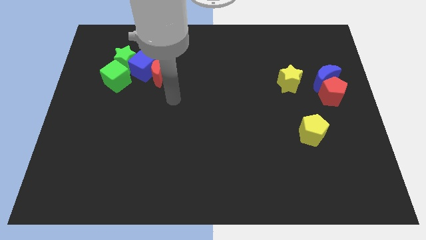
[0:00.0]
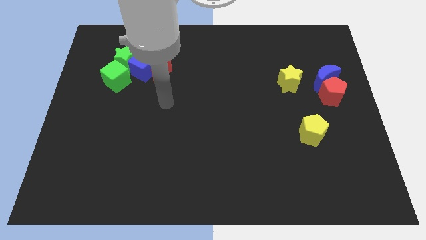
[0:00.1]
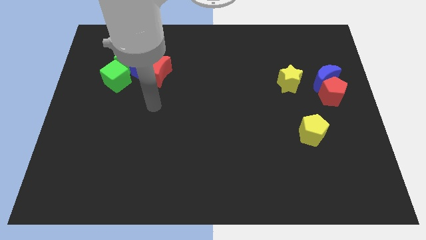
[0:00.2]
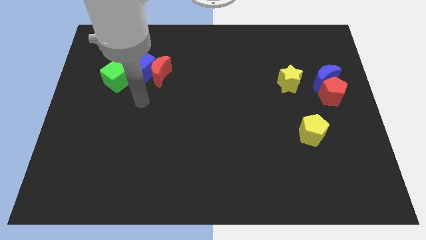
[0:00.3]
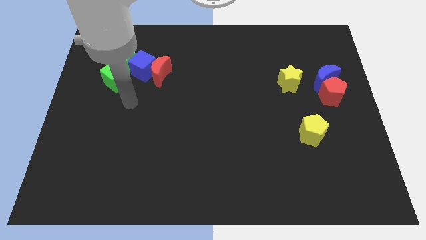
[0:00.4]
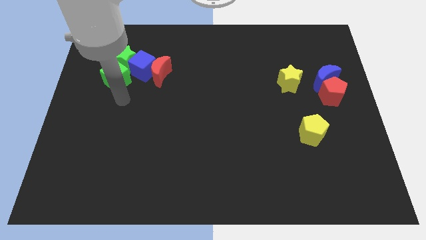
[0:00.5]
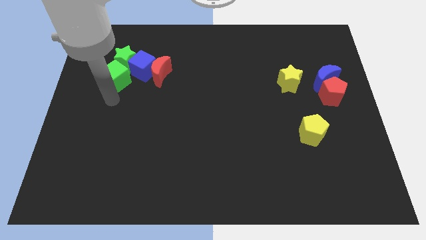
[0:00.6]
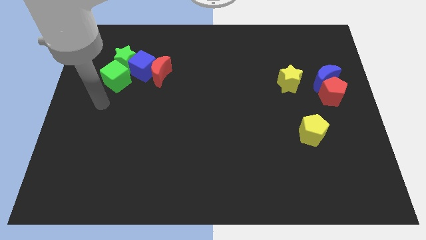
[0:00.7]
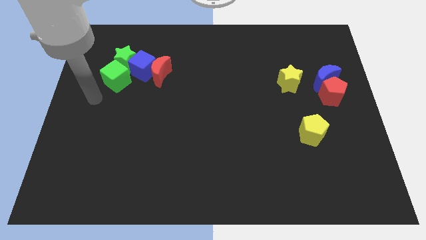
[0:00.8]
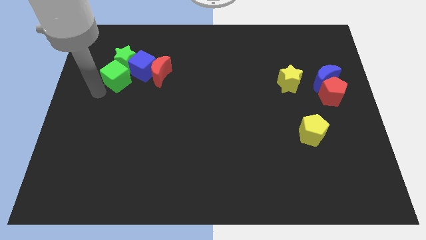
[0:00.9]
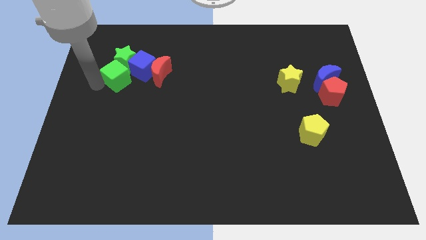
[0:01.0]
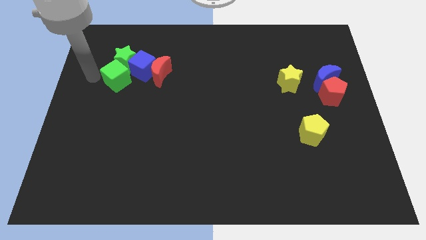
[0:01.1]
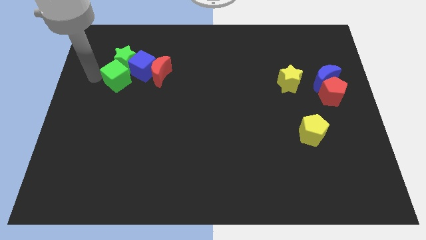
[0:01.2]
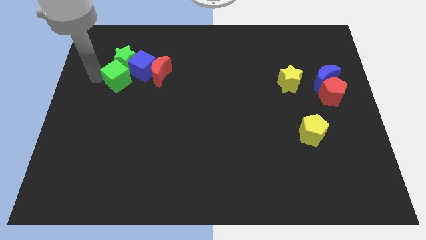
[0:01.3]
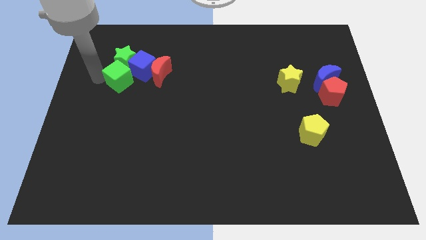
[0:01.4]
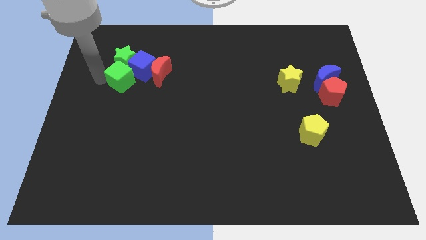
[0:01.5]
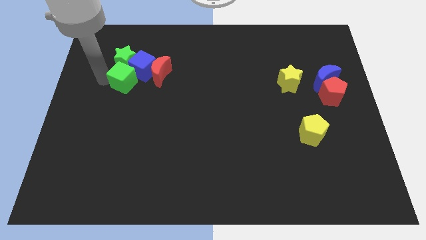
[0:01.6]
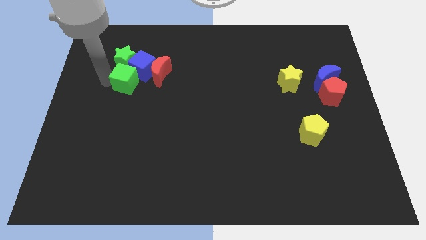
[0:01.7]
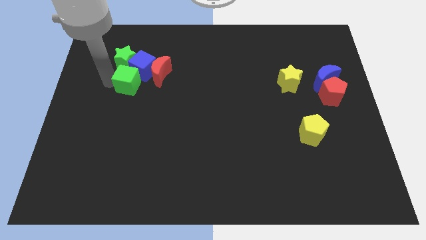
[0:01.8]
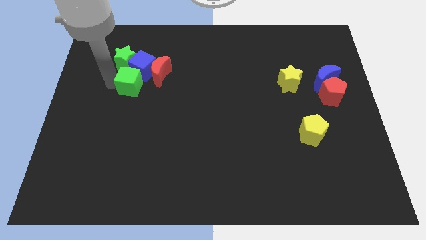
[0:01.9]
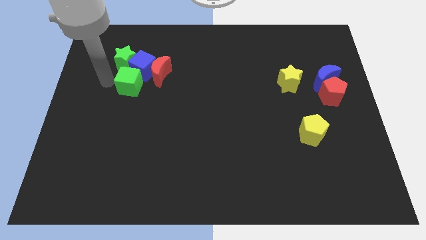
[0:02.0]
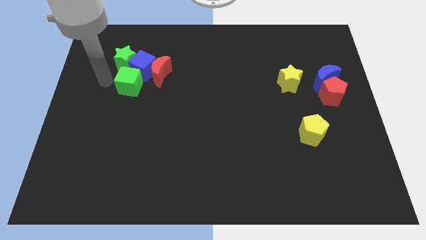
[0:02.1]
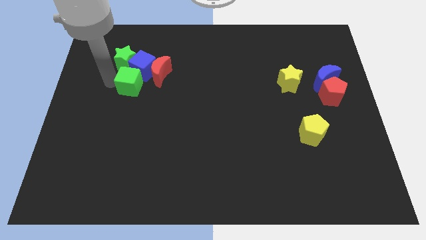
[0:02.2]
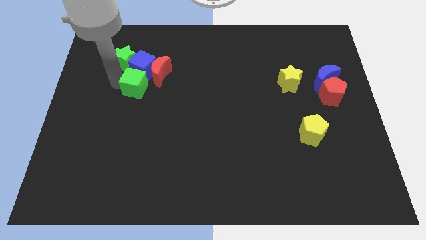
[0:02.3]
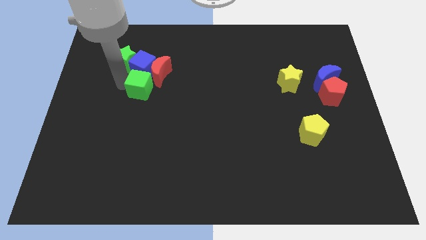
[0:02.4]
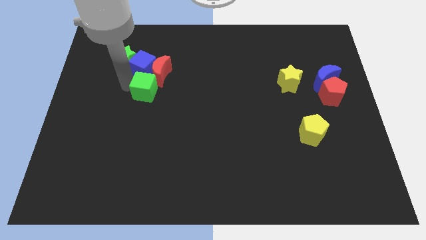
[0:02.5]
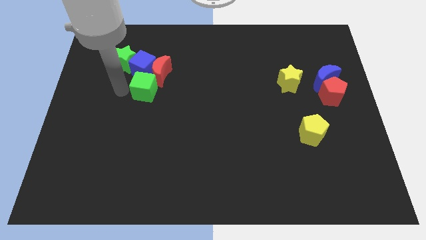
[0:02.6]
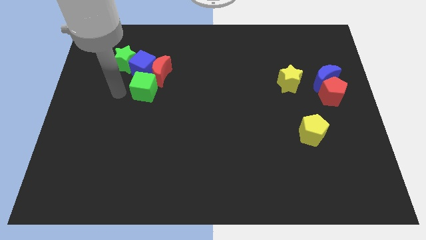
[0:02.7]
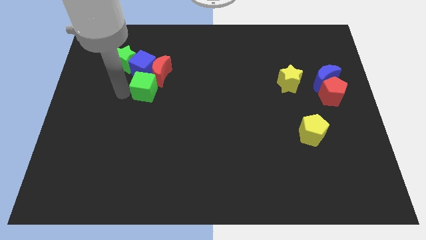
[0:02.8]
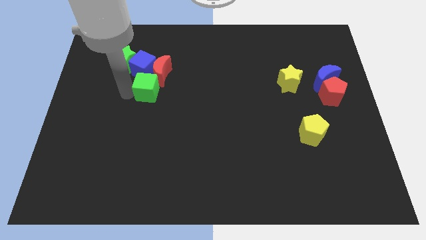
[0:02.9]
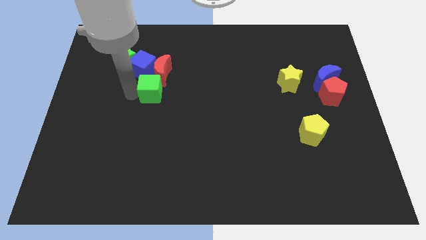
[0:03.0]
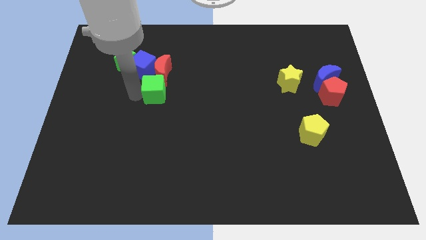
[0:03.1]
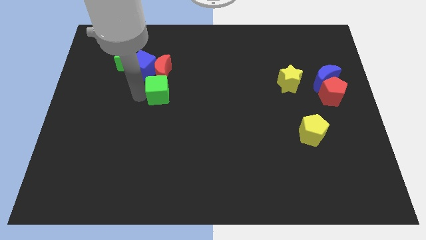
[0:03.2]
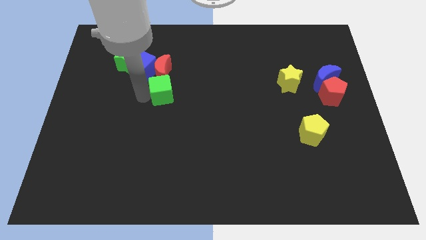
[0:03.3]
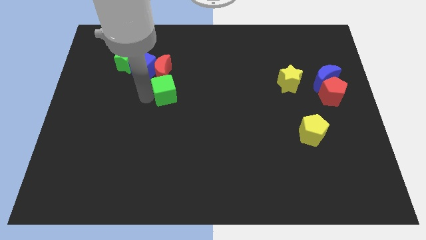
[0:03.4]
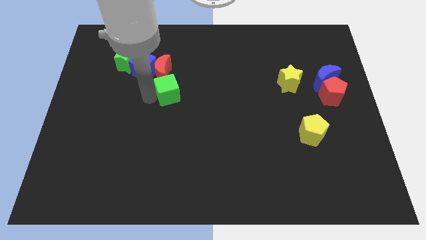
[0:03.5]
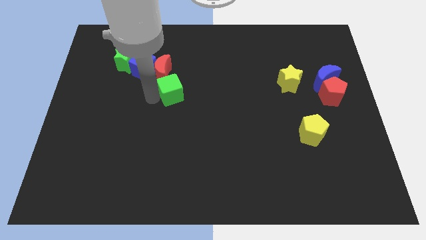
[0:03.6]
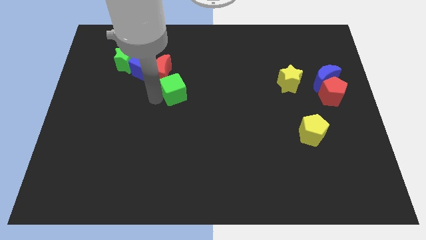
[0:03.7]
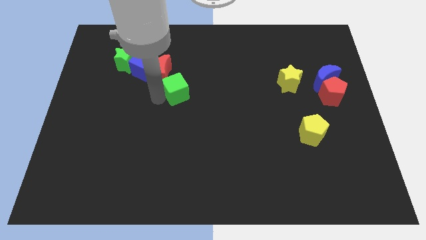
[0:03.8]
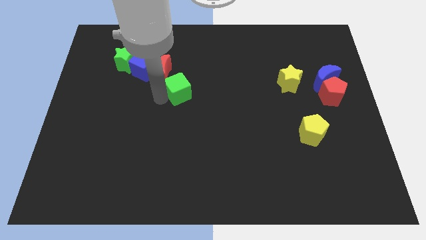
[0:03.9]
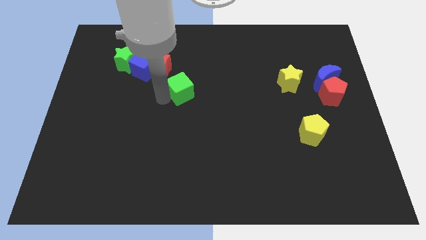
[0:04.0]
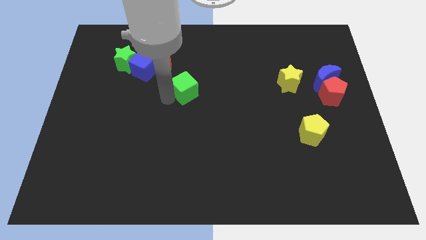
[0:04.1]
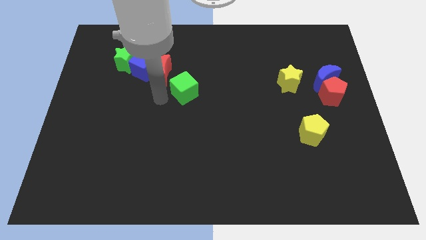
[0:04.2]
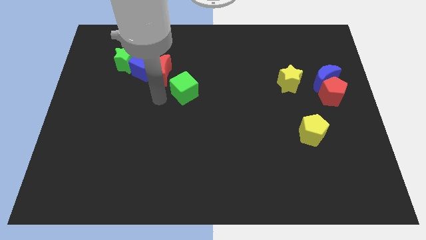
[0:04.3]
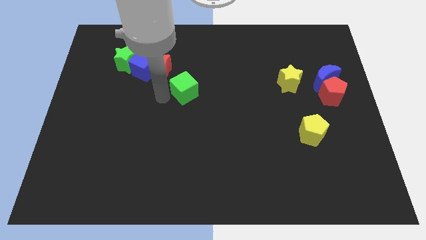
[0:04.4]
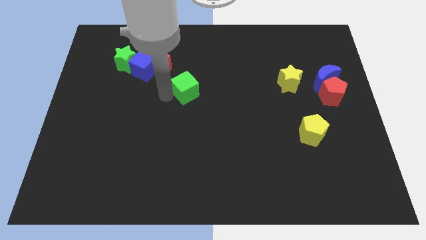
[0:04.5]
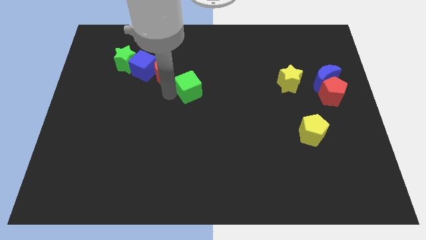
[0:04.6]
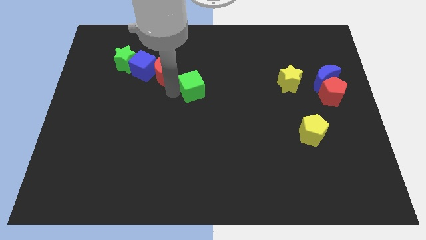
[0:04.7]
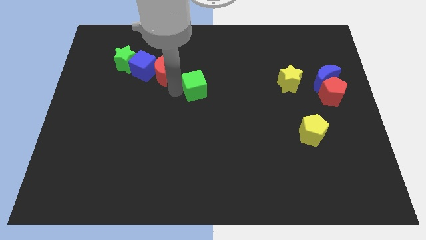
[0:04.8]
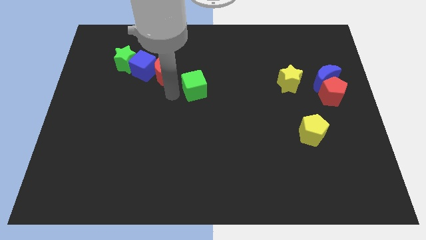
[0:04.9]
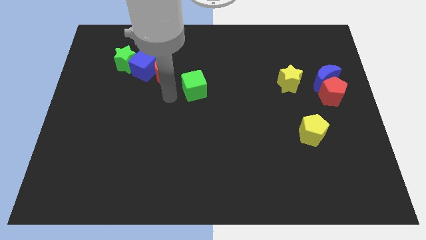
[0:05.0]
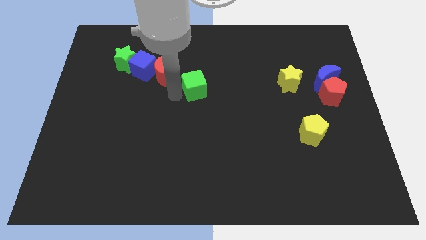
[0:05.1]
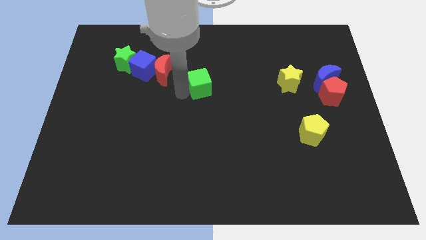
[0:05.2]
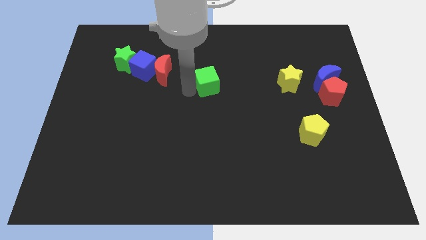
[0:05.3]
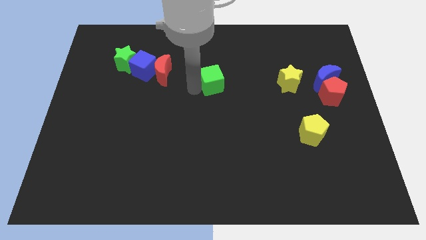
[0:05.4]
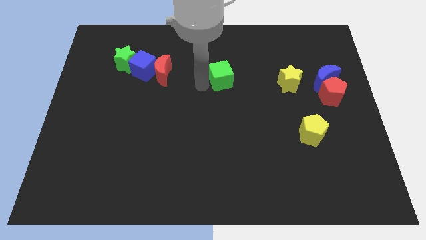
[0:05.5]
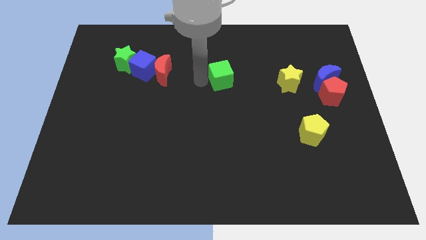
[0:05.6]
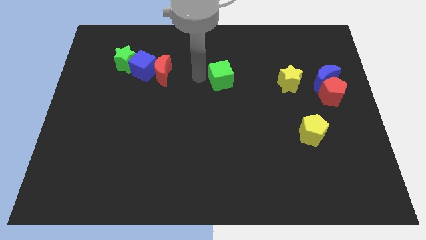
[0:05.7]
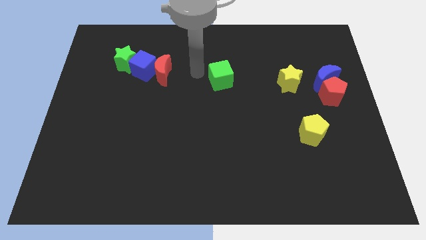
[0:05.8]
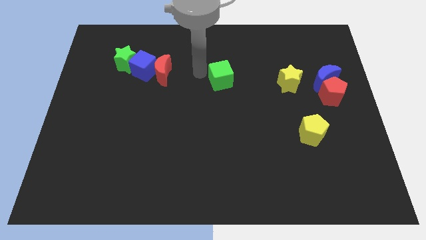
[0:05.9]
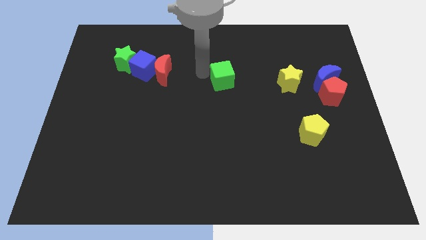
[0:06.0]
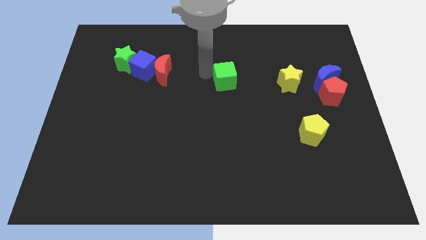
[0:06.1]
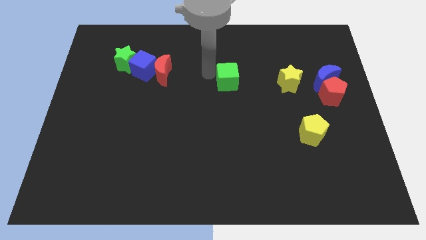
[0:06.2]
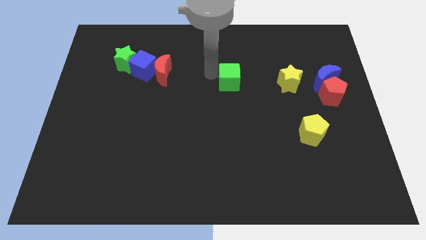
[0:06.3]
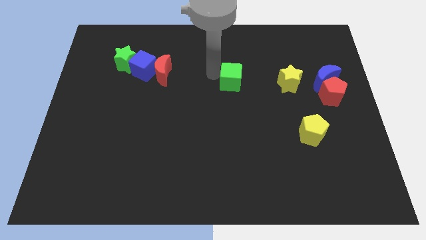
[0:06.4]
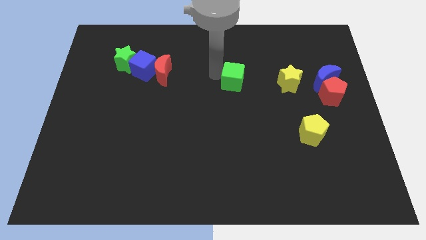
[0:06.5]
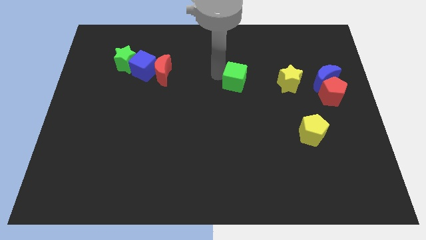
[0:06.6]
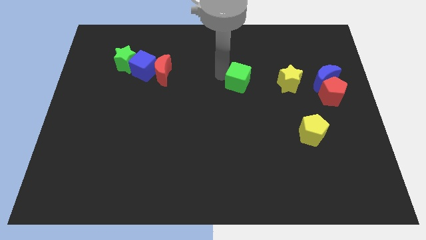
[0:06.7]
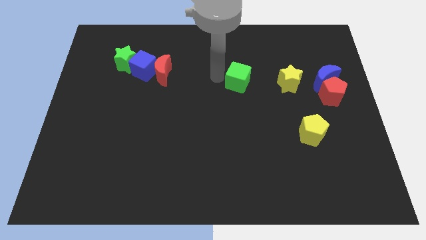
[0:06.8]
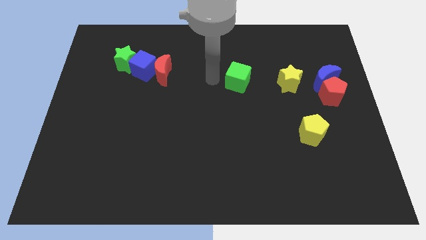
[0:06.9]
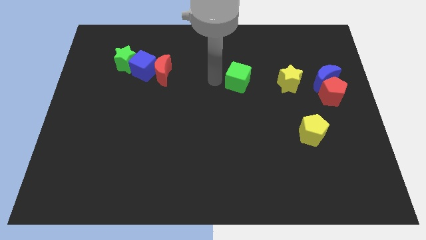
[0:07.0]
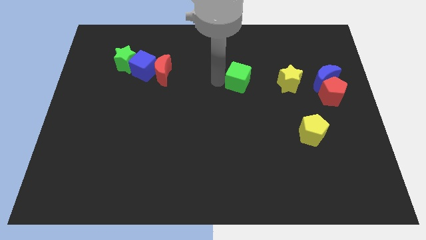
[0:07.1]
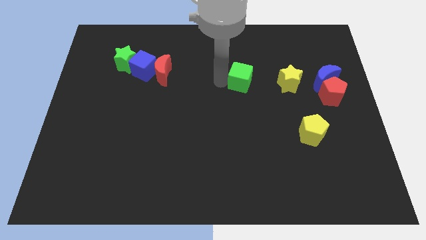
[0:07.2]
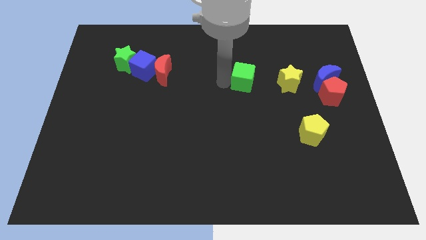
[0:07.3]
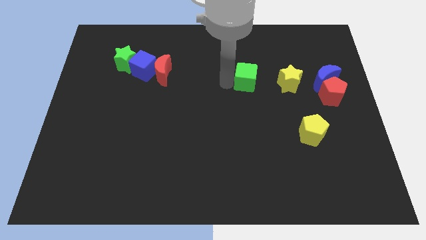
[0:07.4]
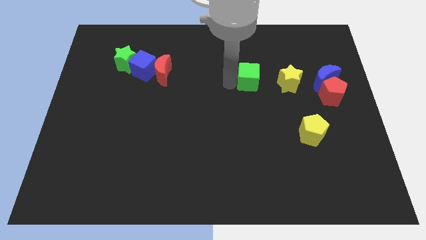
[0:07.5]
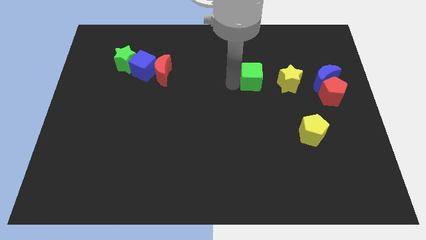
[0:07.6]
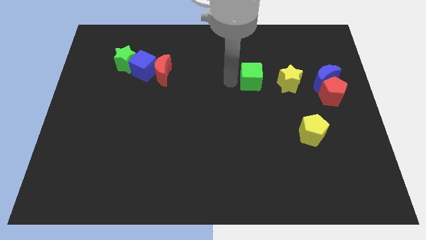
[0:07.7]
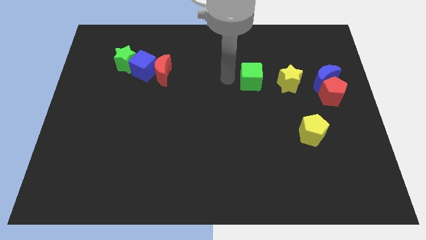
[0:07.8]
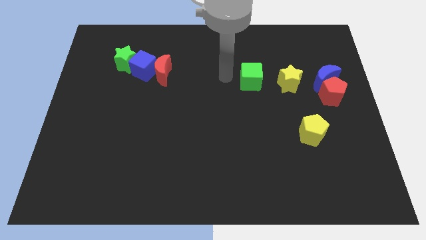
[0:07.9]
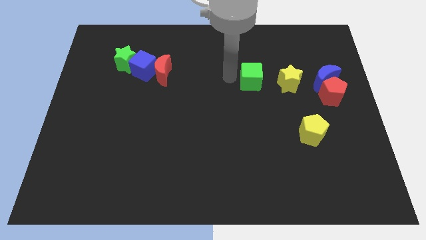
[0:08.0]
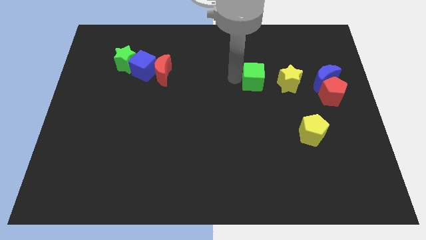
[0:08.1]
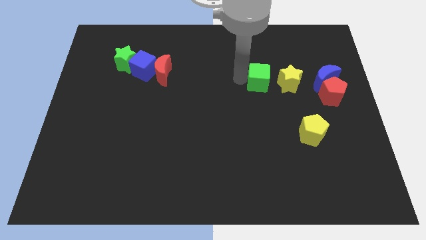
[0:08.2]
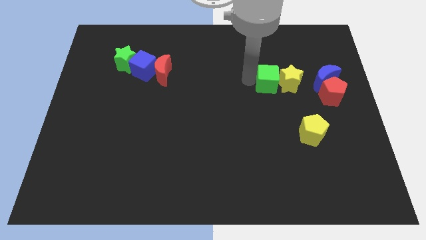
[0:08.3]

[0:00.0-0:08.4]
put the green cube close to the yellow star
